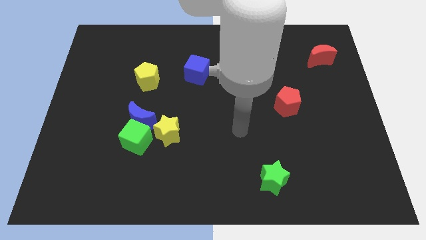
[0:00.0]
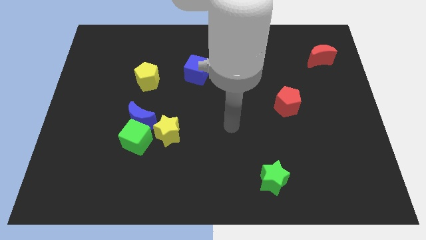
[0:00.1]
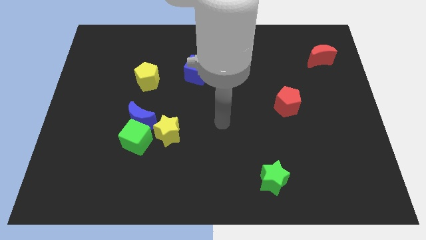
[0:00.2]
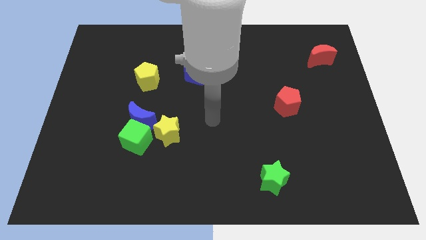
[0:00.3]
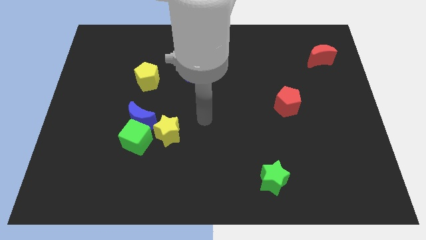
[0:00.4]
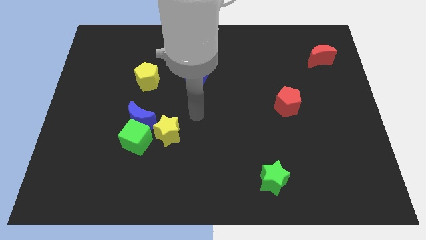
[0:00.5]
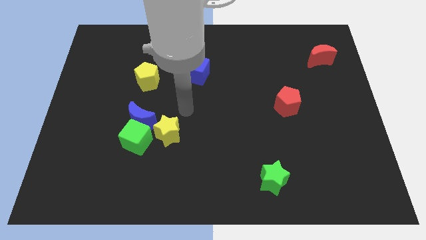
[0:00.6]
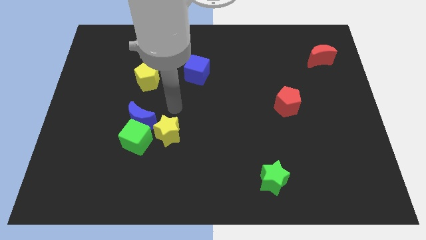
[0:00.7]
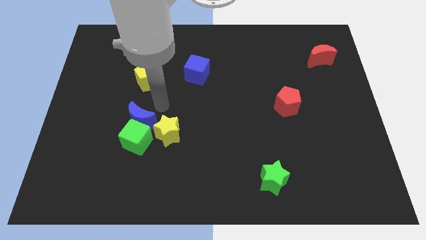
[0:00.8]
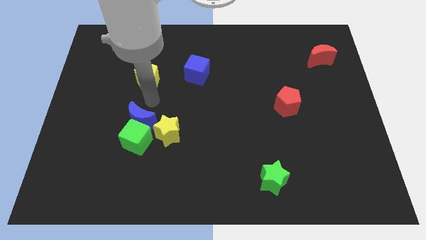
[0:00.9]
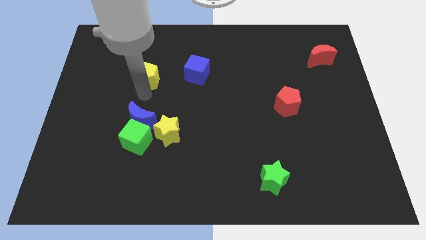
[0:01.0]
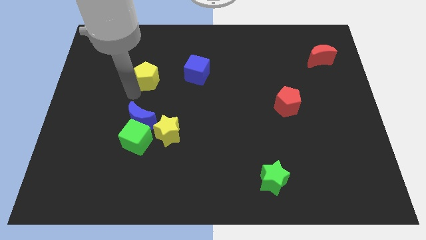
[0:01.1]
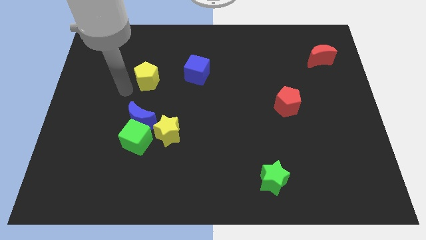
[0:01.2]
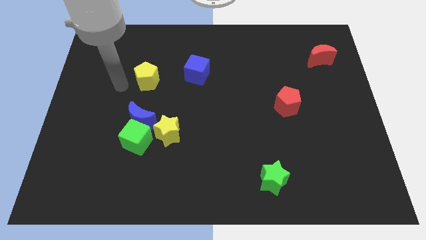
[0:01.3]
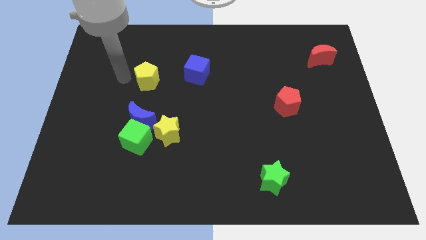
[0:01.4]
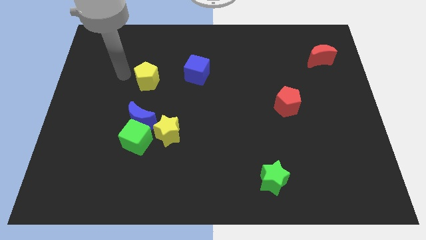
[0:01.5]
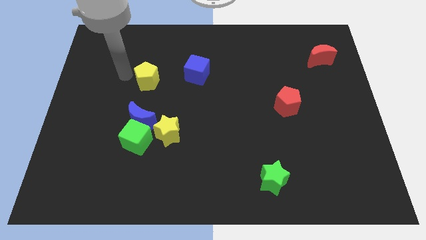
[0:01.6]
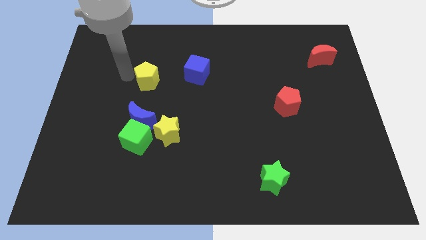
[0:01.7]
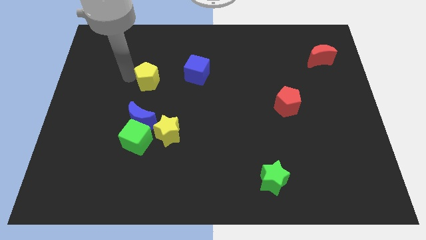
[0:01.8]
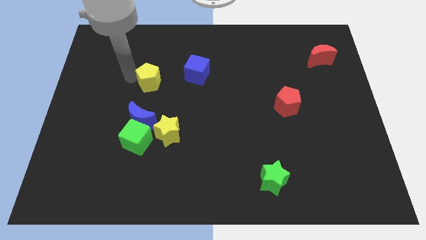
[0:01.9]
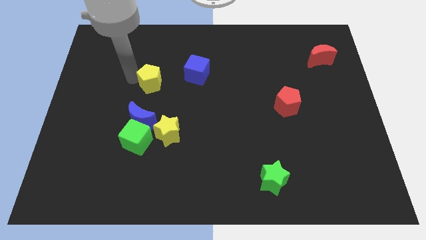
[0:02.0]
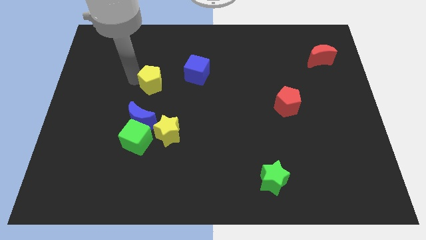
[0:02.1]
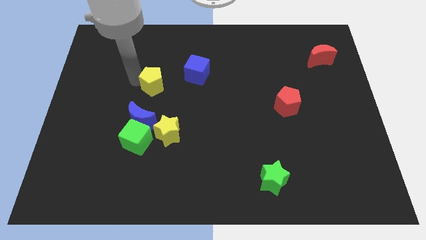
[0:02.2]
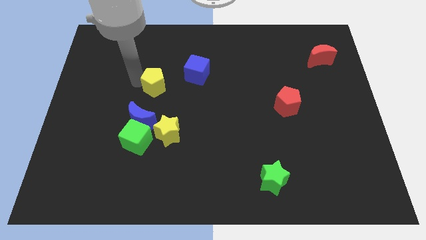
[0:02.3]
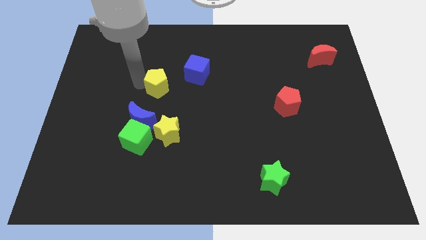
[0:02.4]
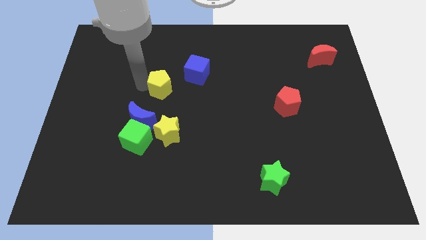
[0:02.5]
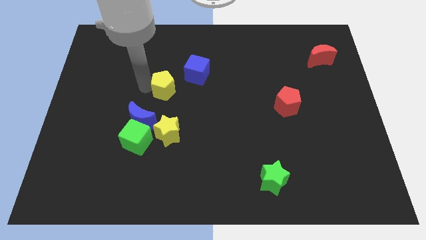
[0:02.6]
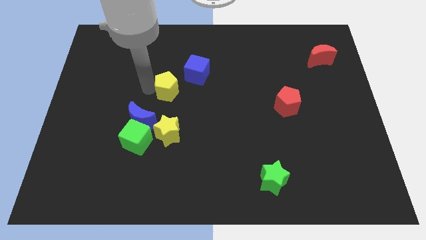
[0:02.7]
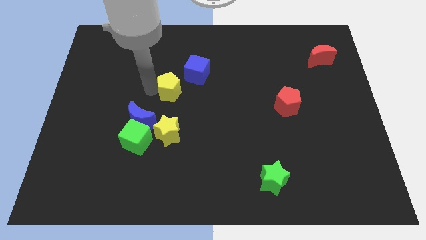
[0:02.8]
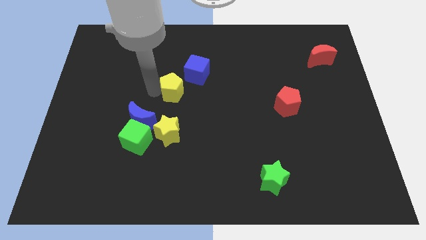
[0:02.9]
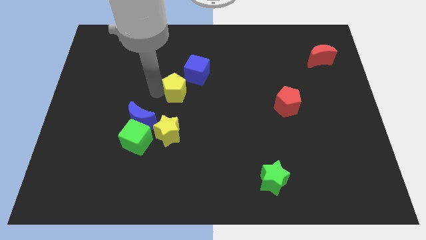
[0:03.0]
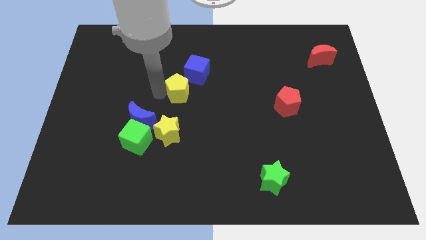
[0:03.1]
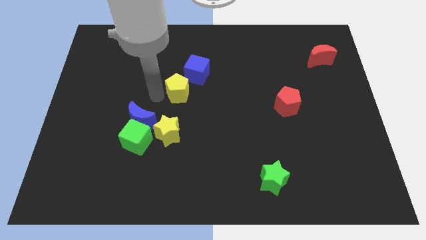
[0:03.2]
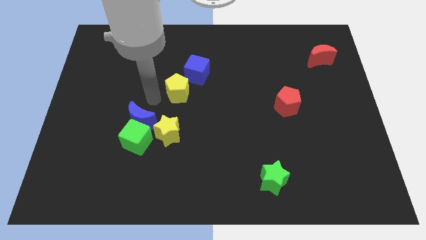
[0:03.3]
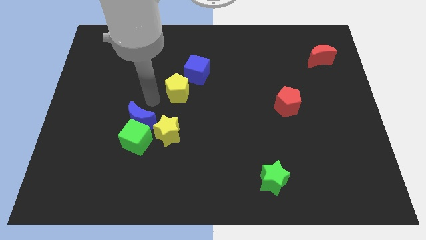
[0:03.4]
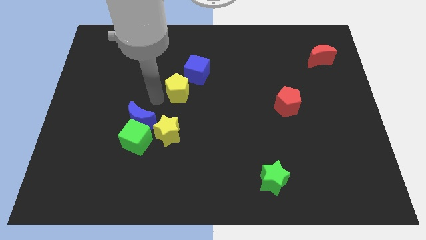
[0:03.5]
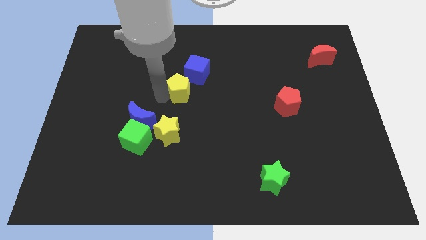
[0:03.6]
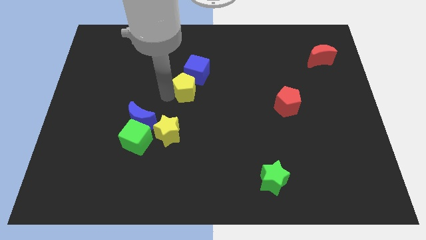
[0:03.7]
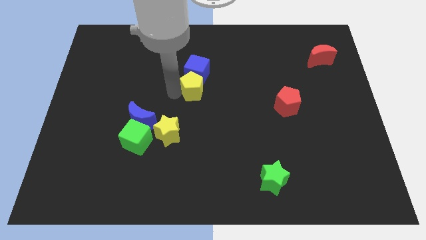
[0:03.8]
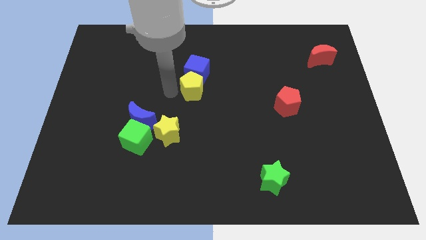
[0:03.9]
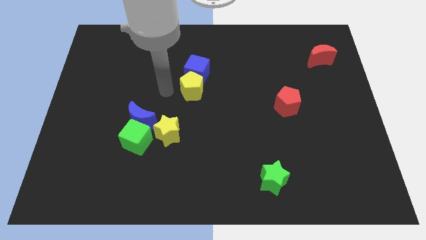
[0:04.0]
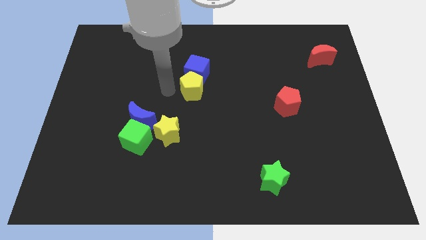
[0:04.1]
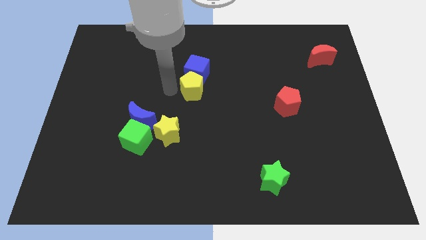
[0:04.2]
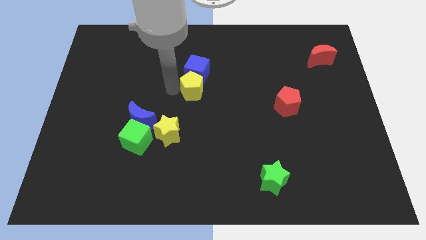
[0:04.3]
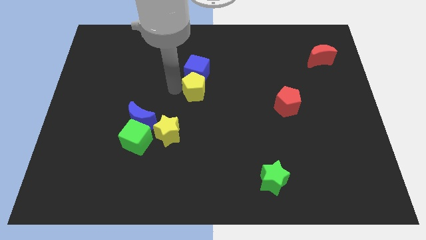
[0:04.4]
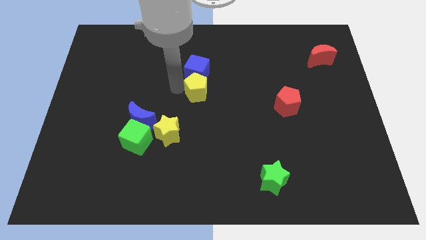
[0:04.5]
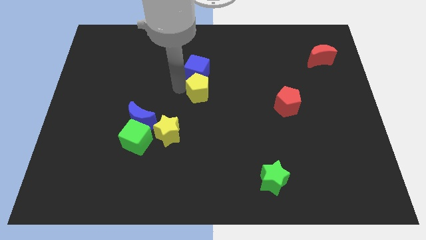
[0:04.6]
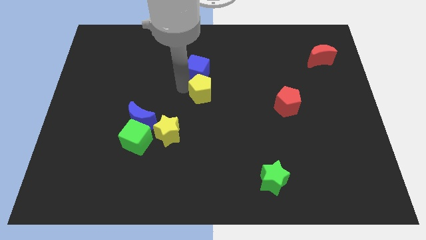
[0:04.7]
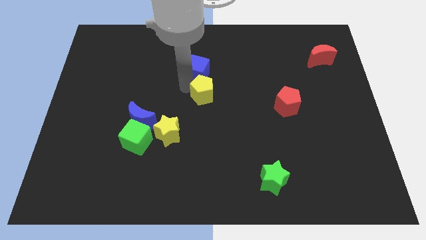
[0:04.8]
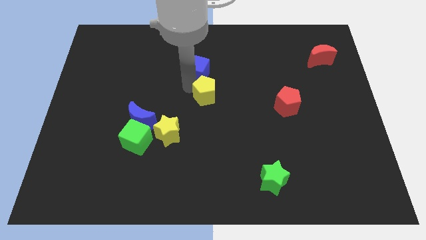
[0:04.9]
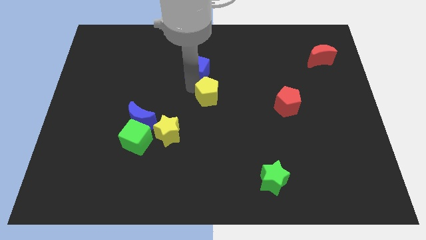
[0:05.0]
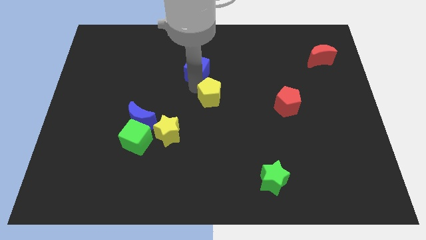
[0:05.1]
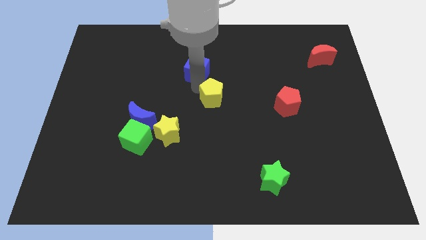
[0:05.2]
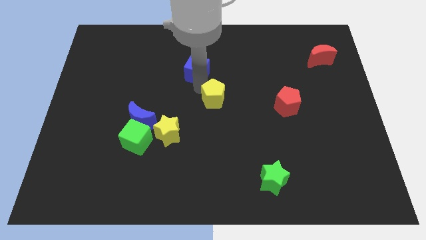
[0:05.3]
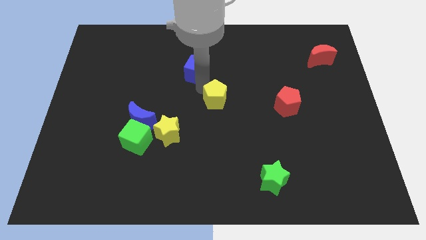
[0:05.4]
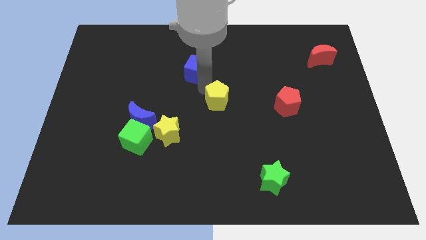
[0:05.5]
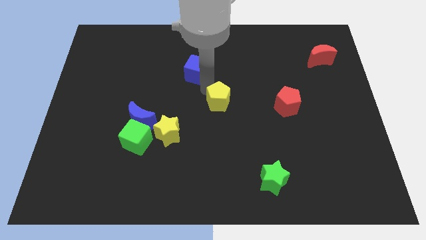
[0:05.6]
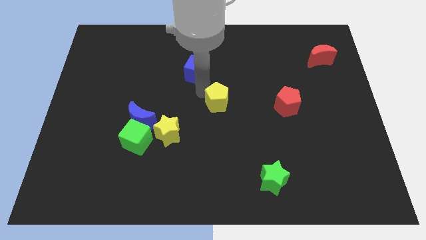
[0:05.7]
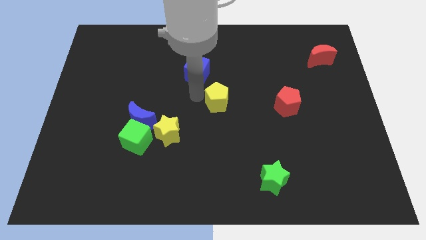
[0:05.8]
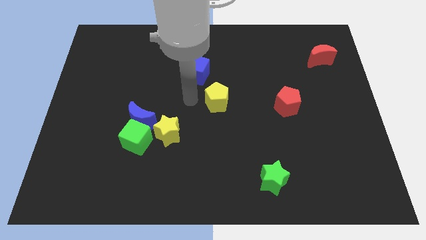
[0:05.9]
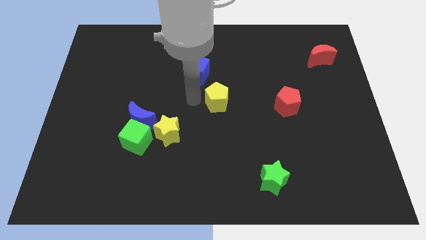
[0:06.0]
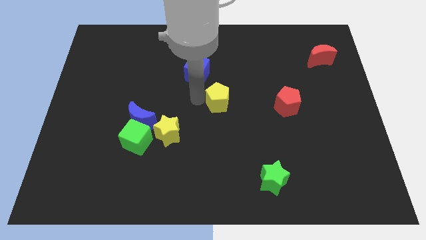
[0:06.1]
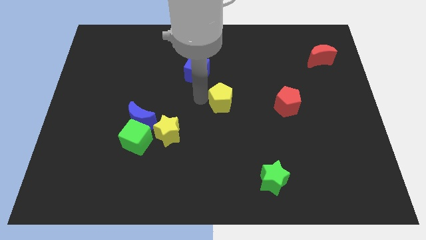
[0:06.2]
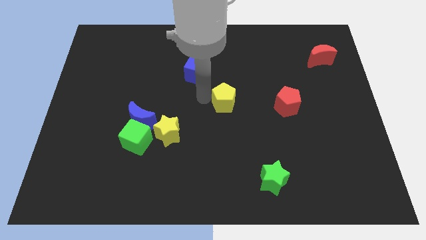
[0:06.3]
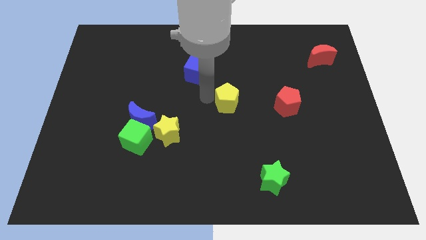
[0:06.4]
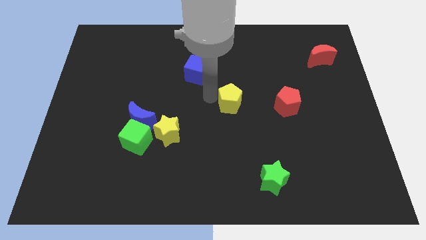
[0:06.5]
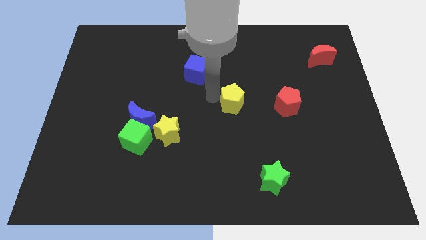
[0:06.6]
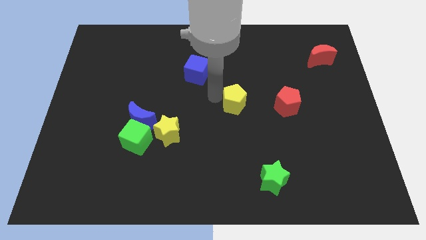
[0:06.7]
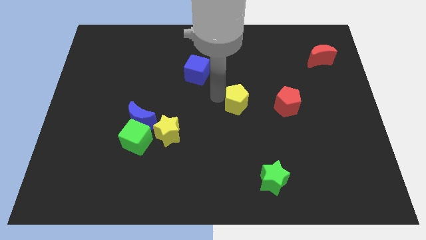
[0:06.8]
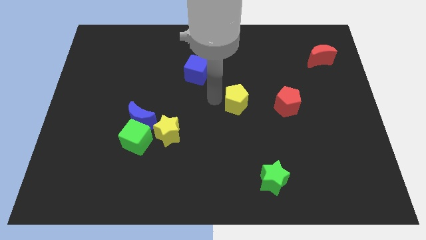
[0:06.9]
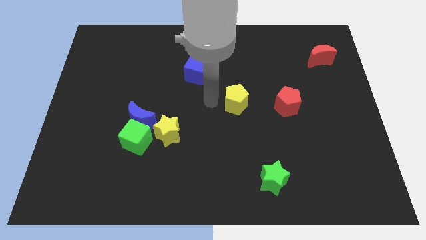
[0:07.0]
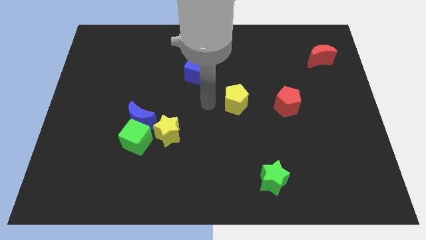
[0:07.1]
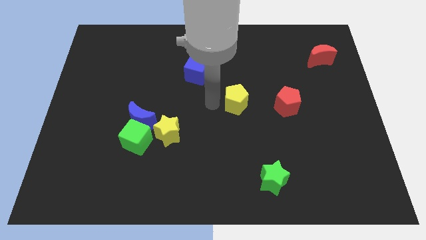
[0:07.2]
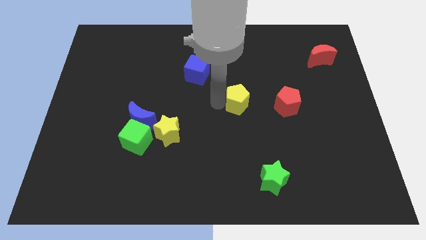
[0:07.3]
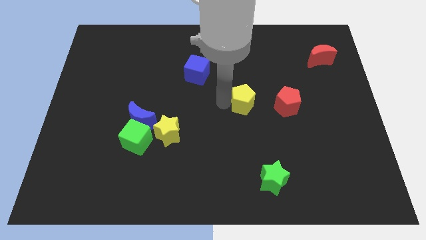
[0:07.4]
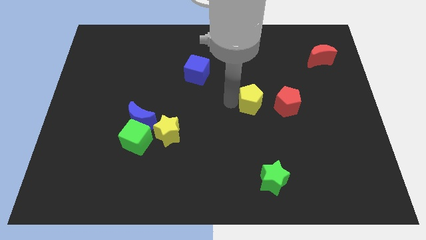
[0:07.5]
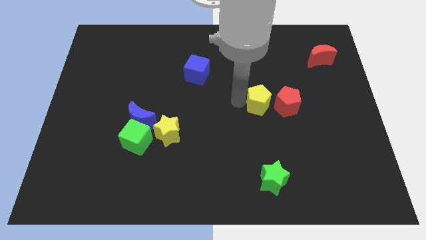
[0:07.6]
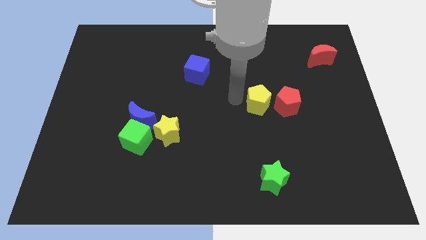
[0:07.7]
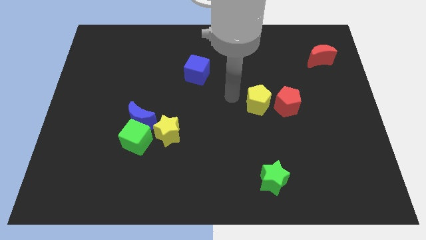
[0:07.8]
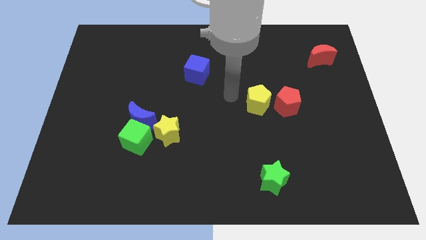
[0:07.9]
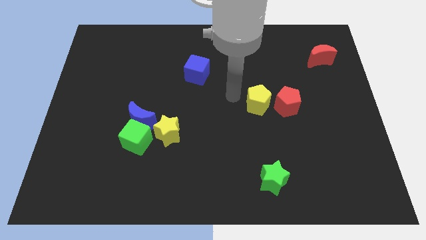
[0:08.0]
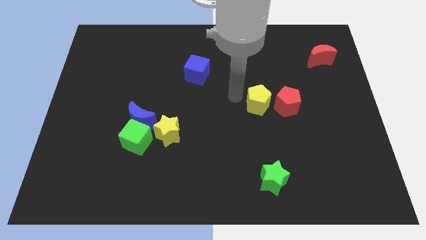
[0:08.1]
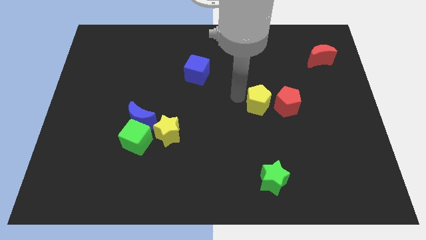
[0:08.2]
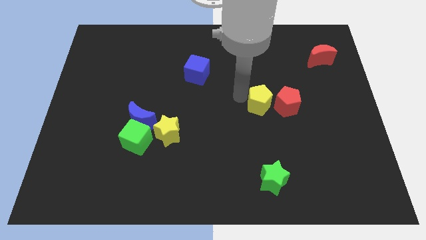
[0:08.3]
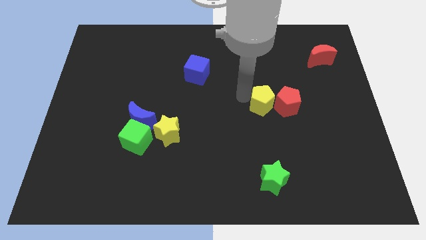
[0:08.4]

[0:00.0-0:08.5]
move the yellow pentagon next to the red pentagon
